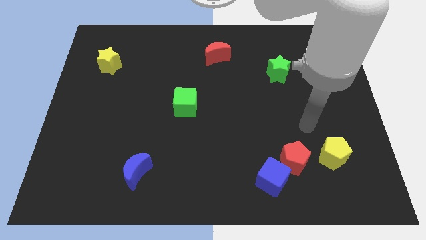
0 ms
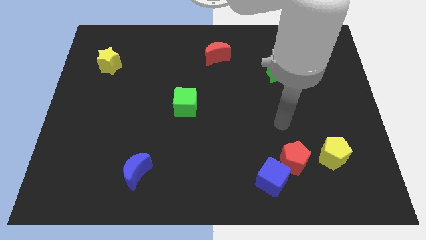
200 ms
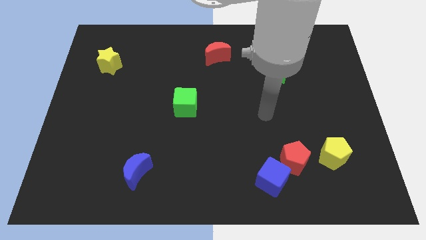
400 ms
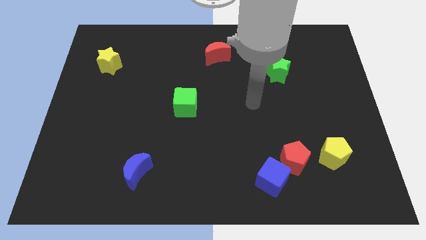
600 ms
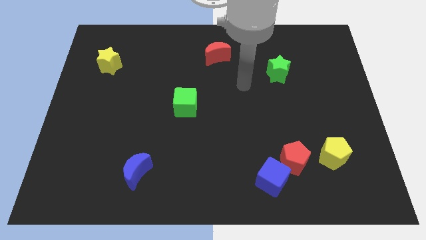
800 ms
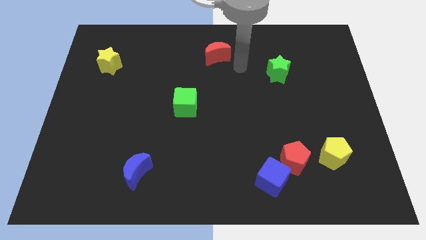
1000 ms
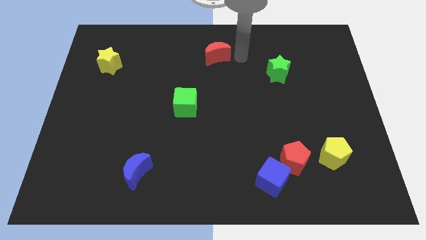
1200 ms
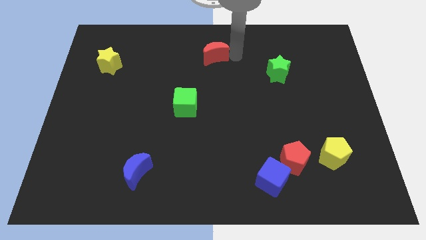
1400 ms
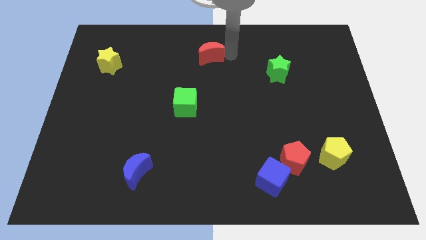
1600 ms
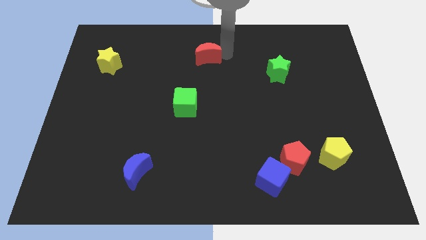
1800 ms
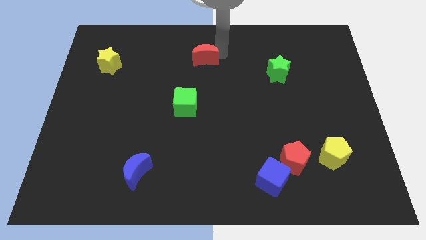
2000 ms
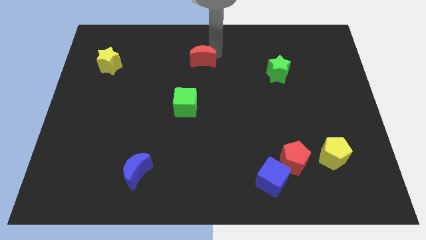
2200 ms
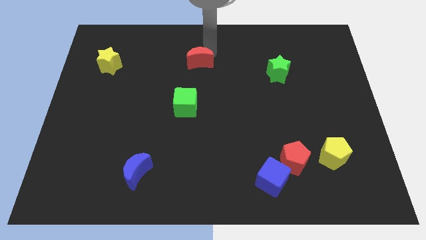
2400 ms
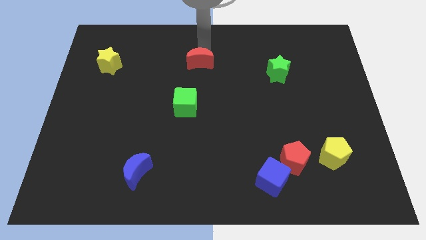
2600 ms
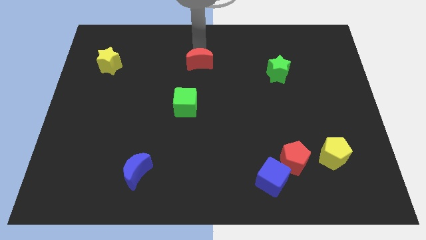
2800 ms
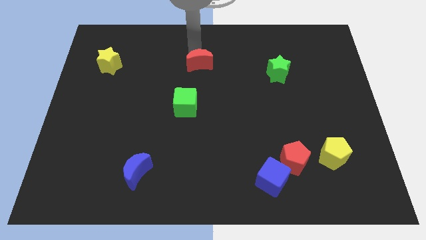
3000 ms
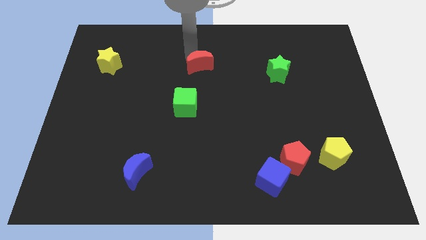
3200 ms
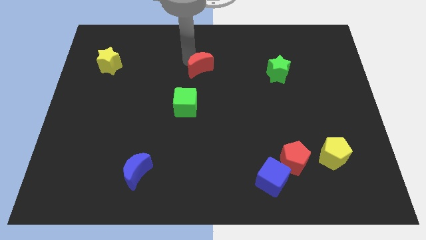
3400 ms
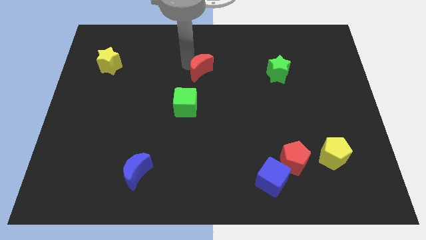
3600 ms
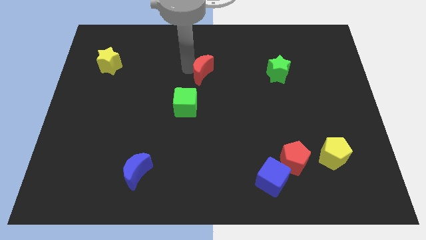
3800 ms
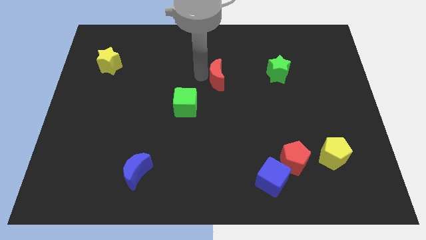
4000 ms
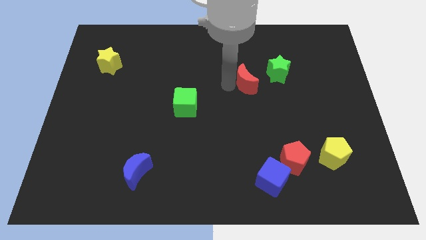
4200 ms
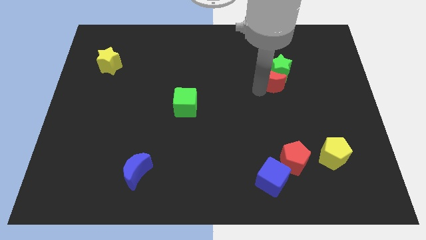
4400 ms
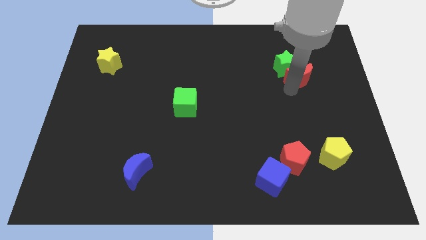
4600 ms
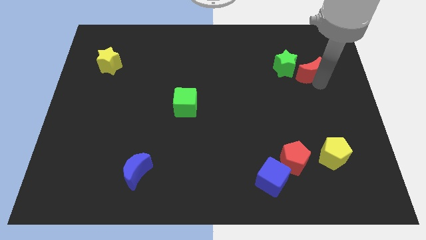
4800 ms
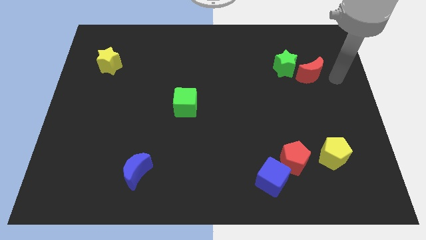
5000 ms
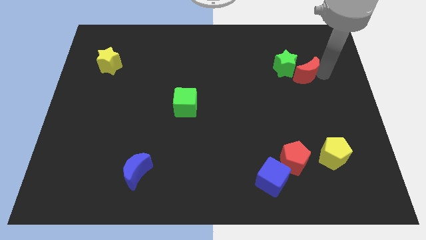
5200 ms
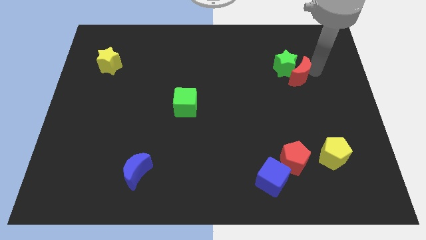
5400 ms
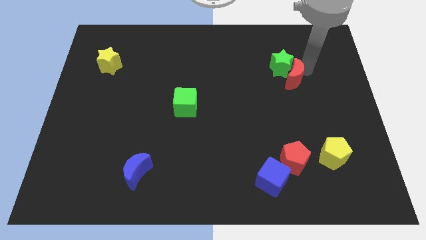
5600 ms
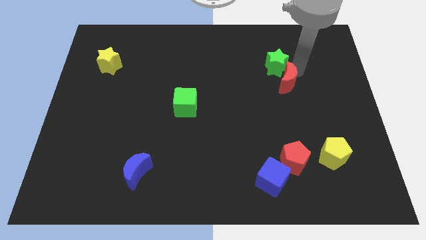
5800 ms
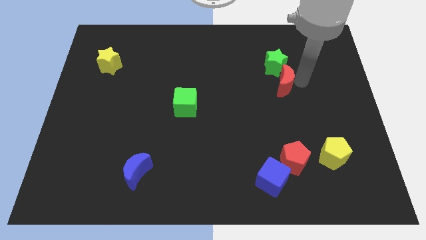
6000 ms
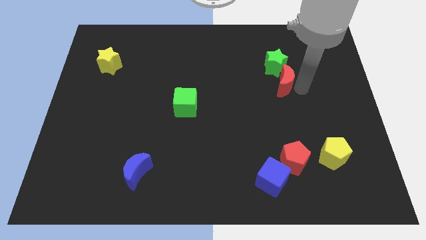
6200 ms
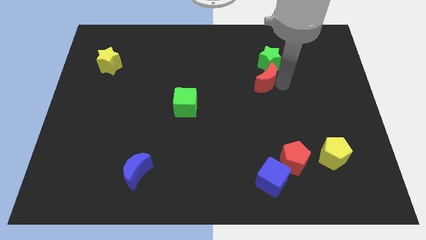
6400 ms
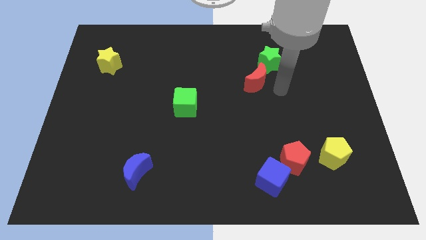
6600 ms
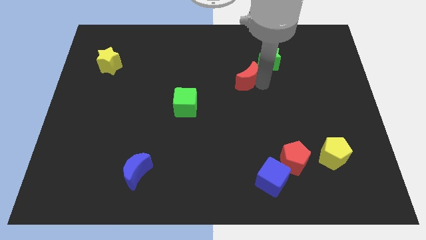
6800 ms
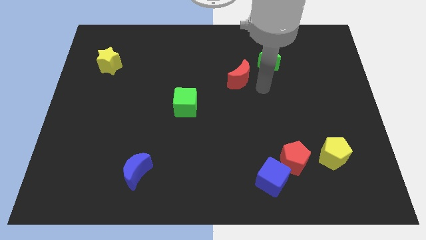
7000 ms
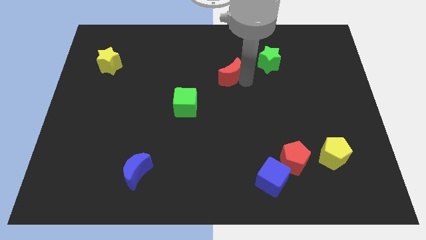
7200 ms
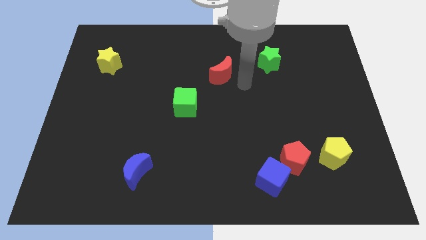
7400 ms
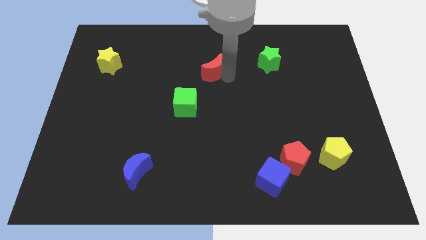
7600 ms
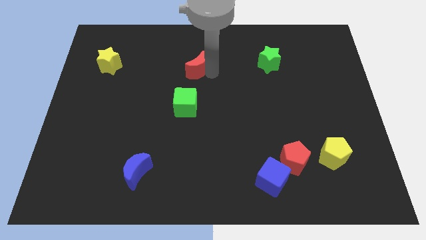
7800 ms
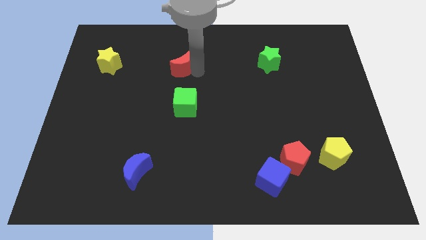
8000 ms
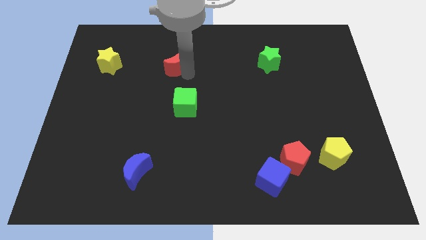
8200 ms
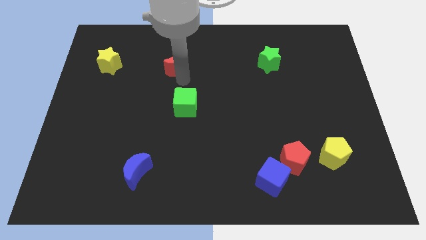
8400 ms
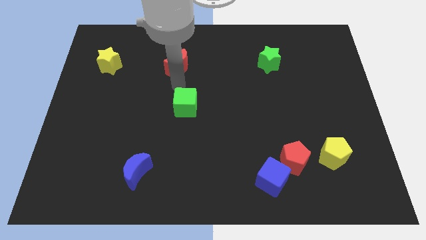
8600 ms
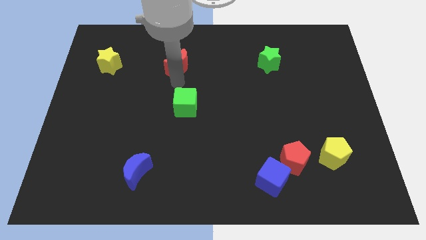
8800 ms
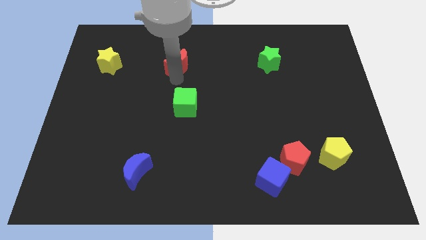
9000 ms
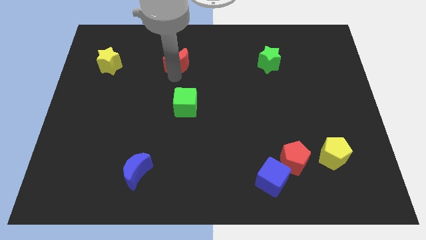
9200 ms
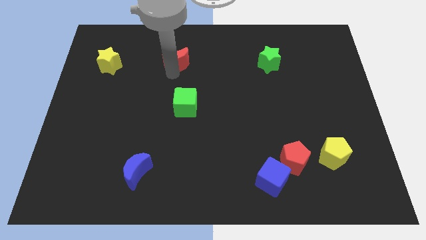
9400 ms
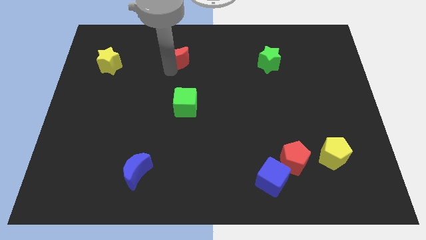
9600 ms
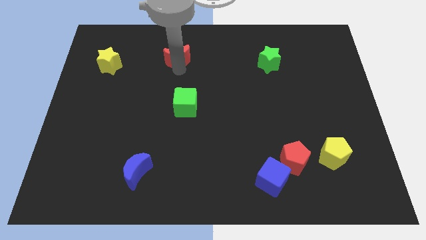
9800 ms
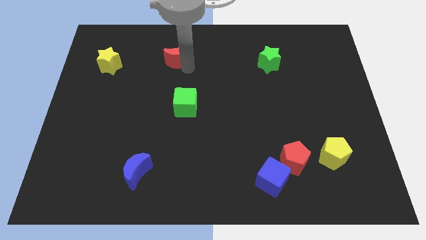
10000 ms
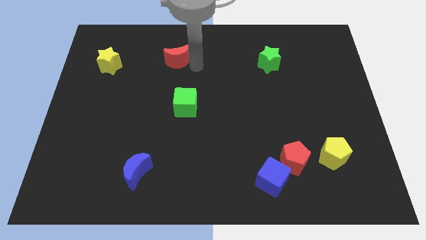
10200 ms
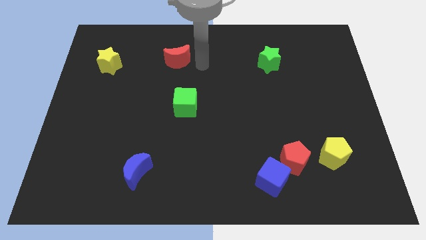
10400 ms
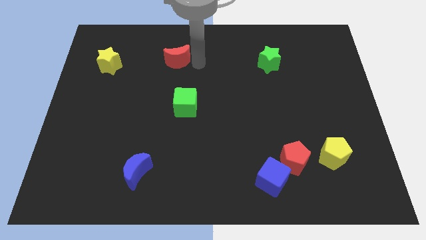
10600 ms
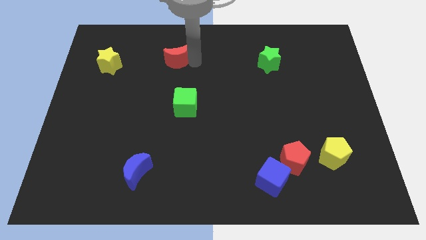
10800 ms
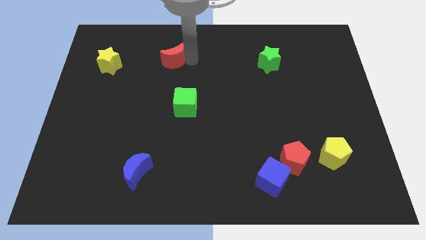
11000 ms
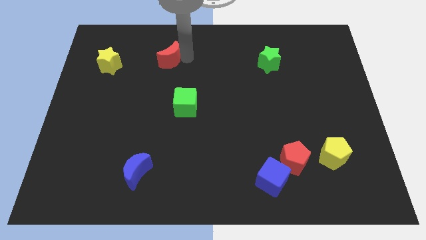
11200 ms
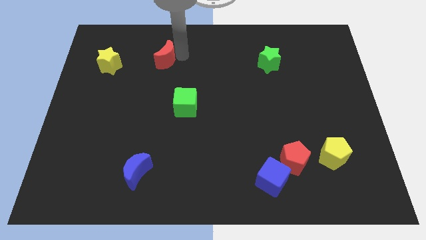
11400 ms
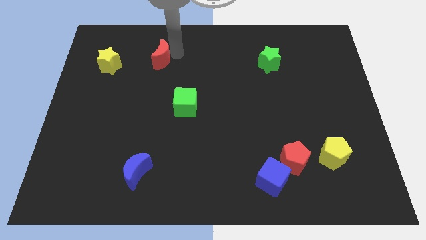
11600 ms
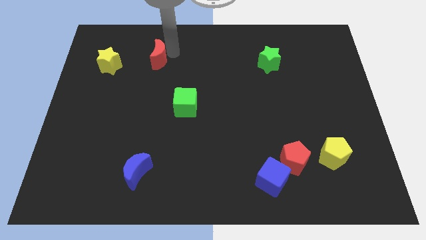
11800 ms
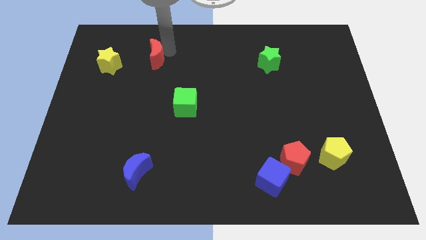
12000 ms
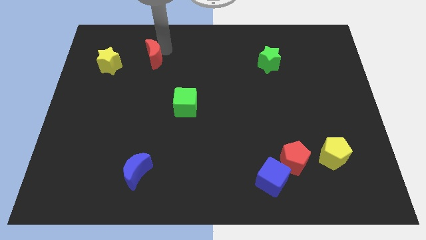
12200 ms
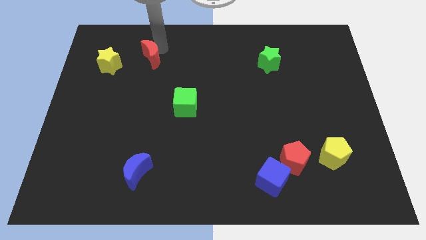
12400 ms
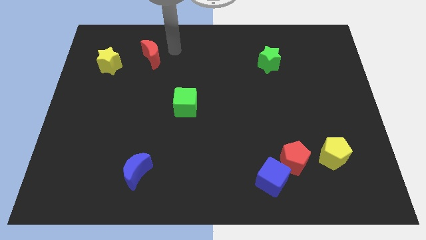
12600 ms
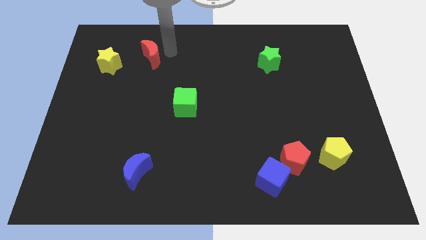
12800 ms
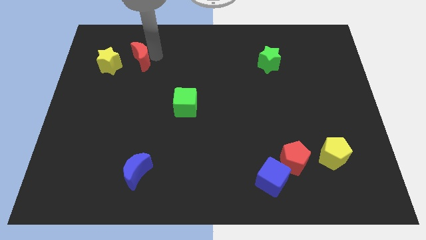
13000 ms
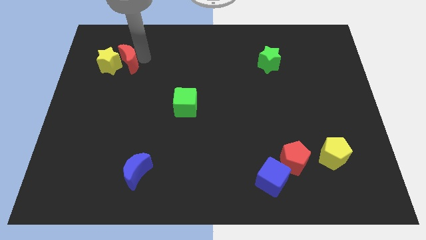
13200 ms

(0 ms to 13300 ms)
push the red moon close to the yellow star
